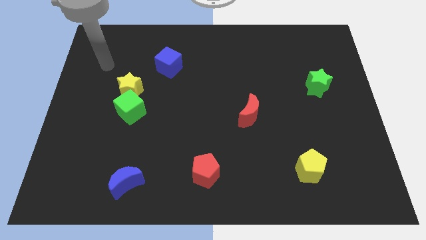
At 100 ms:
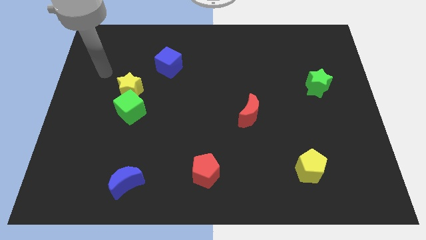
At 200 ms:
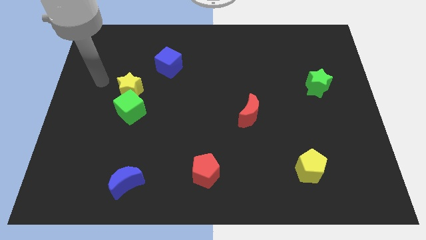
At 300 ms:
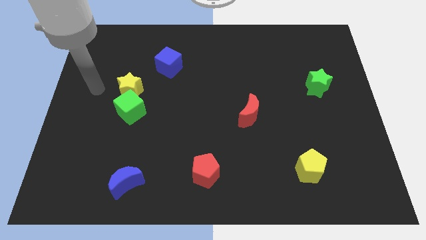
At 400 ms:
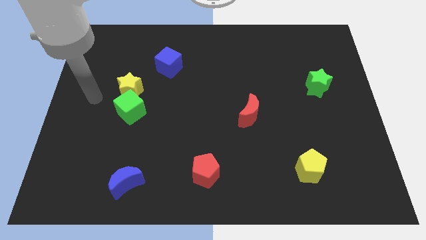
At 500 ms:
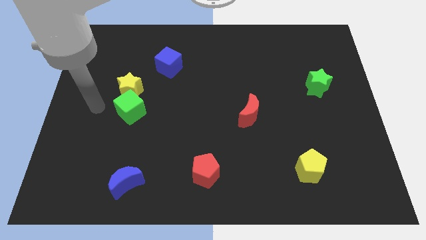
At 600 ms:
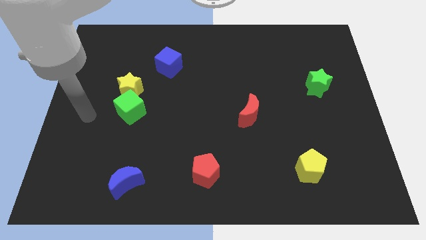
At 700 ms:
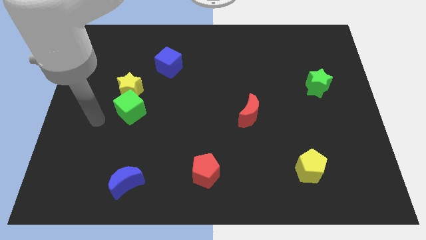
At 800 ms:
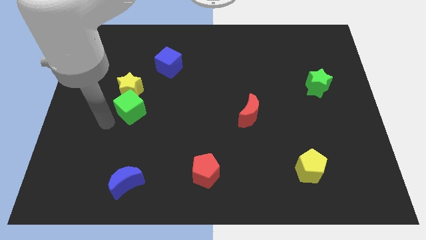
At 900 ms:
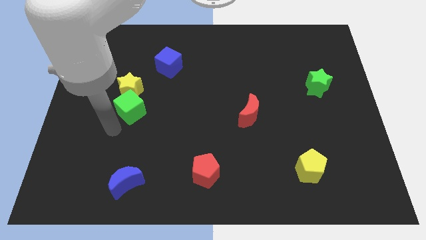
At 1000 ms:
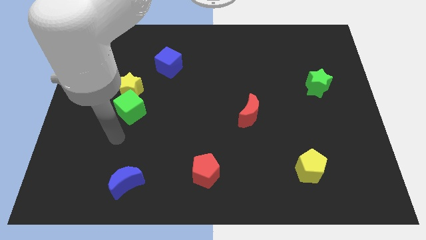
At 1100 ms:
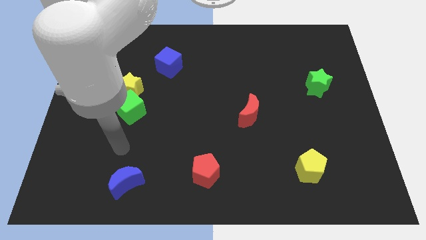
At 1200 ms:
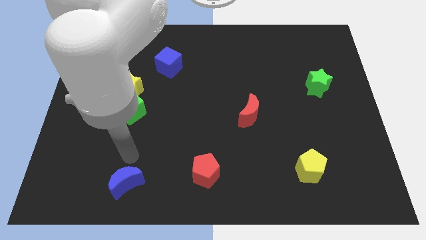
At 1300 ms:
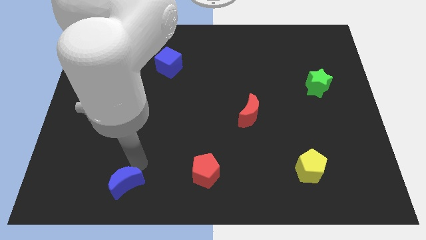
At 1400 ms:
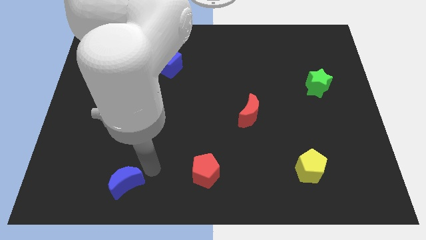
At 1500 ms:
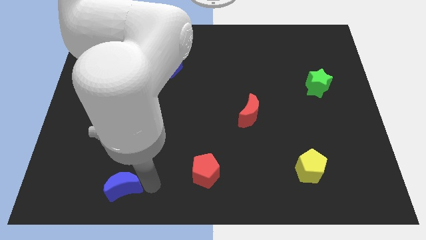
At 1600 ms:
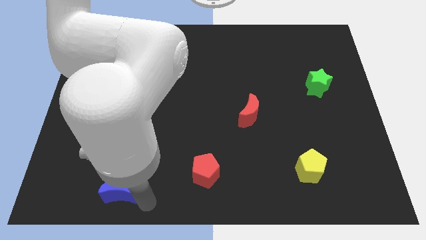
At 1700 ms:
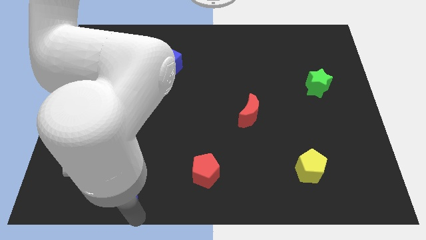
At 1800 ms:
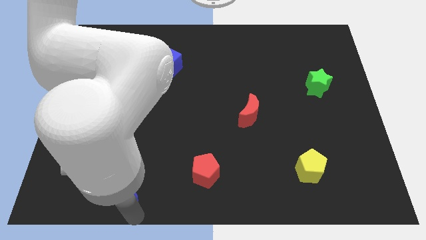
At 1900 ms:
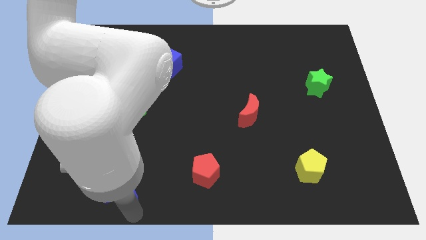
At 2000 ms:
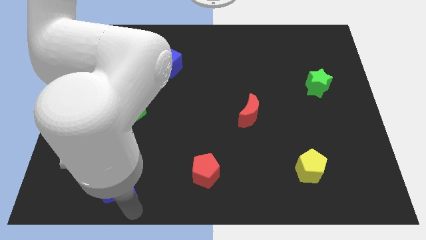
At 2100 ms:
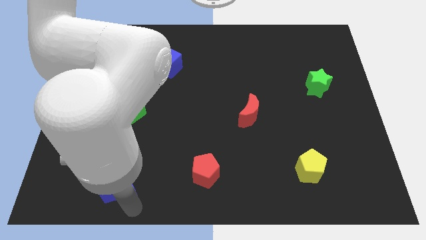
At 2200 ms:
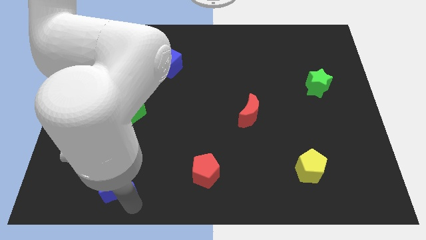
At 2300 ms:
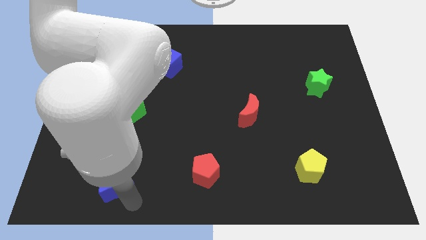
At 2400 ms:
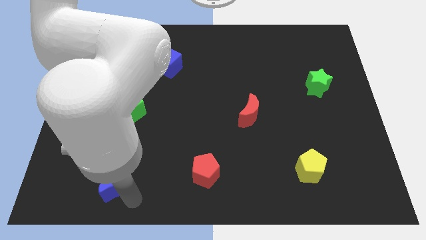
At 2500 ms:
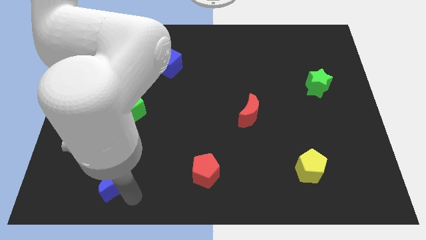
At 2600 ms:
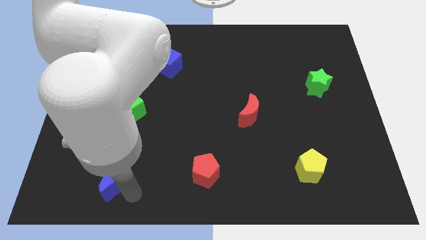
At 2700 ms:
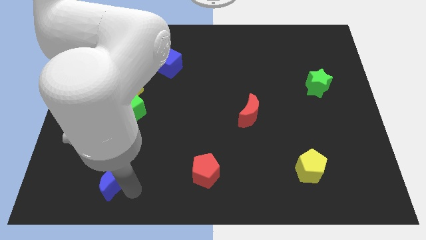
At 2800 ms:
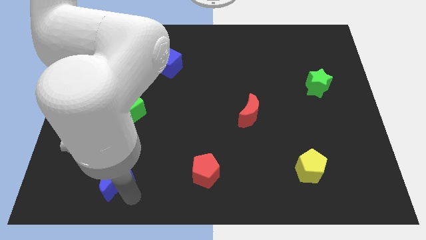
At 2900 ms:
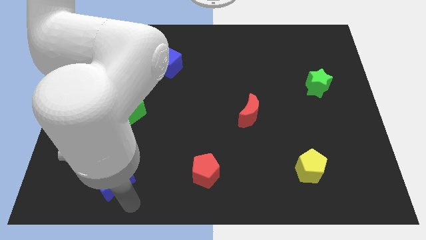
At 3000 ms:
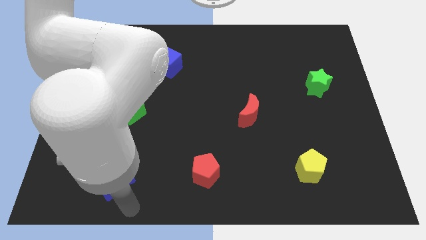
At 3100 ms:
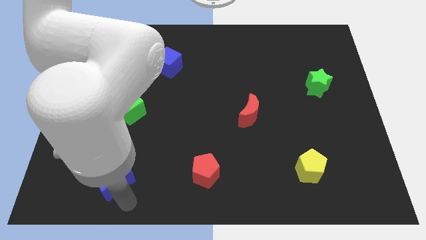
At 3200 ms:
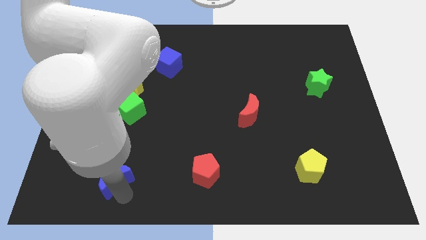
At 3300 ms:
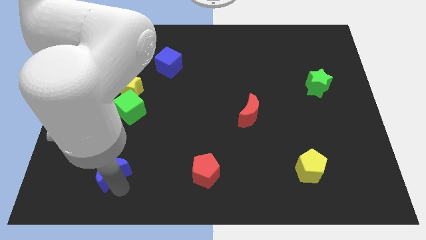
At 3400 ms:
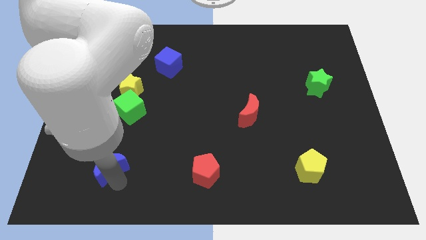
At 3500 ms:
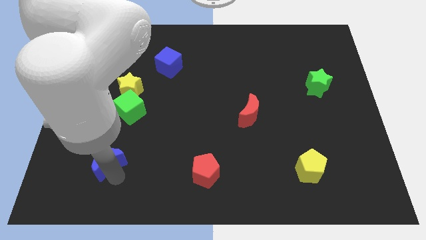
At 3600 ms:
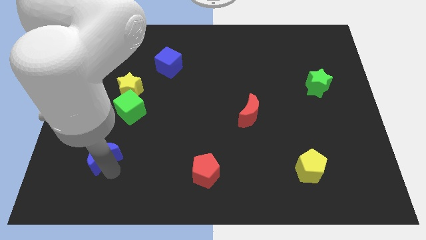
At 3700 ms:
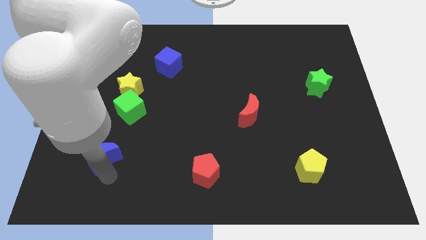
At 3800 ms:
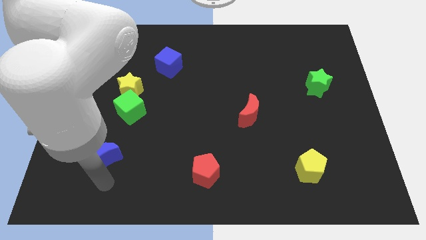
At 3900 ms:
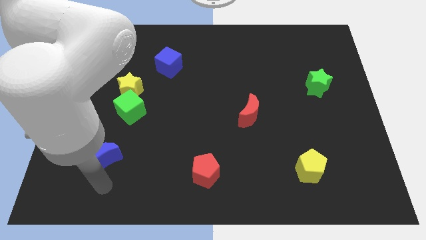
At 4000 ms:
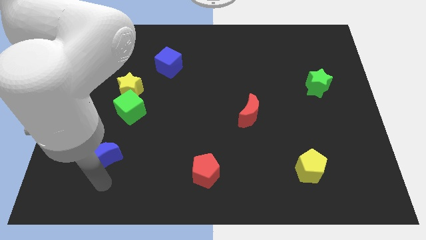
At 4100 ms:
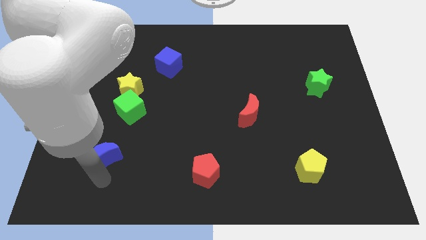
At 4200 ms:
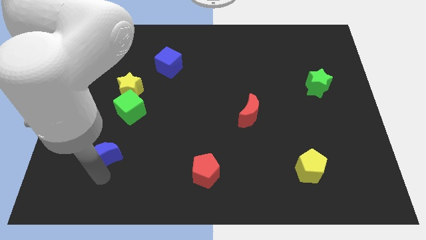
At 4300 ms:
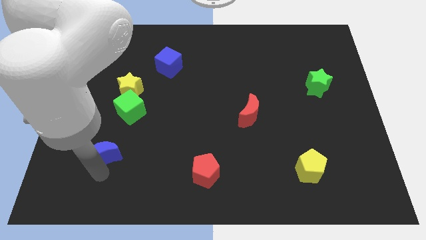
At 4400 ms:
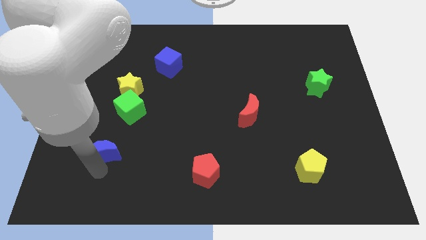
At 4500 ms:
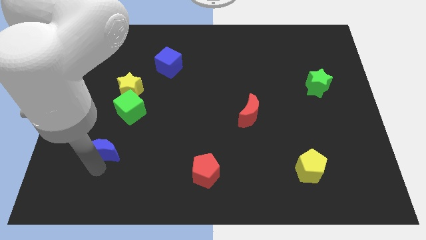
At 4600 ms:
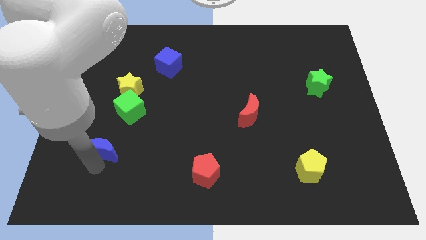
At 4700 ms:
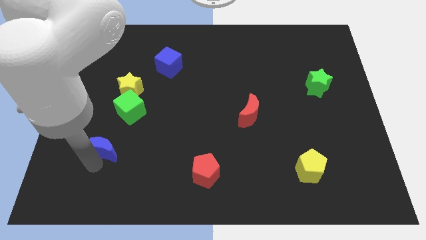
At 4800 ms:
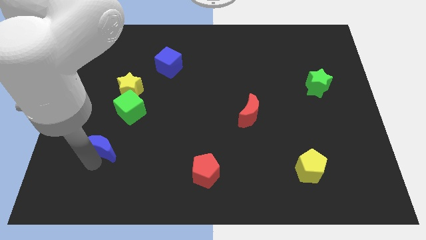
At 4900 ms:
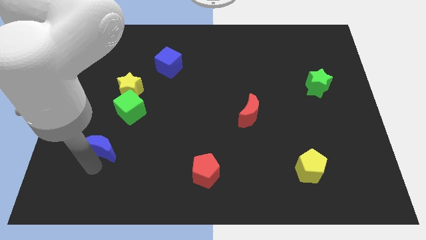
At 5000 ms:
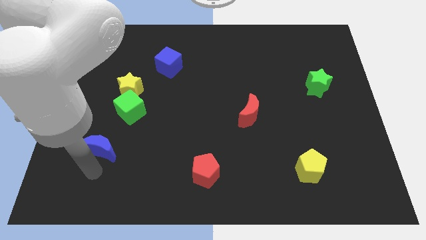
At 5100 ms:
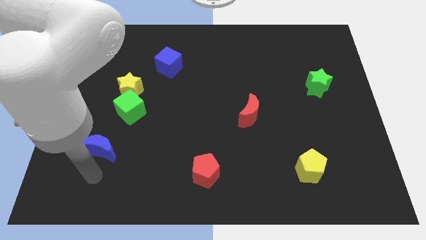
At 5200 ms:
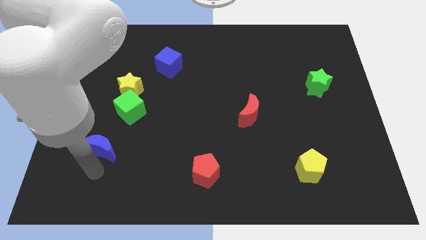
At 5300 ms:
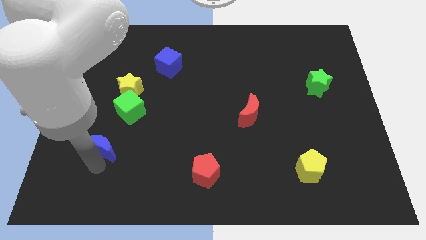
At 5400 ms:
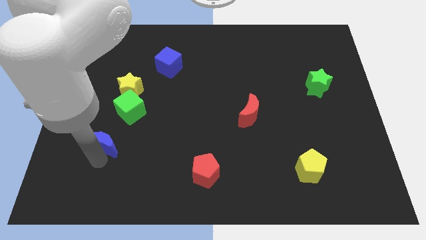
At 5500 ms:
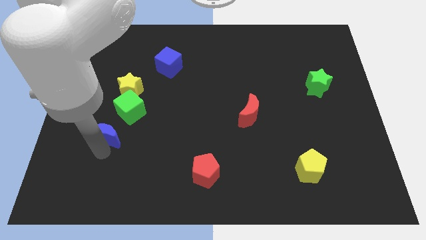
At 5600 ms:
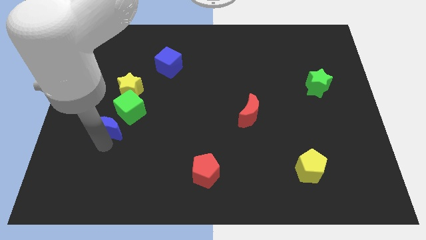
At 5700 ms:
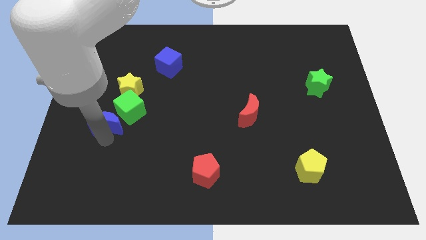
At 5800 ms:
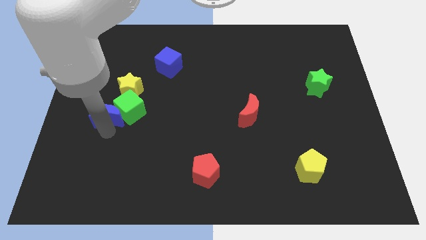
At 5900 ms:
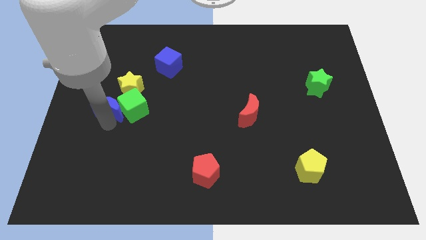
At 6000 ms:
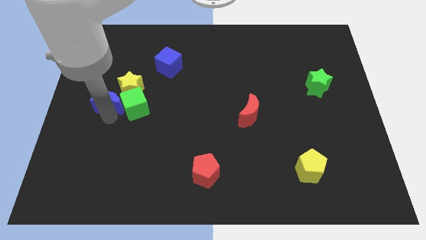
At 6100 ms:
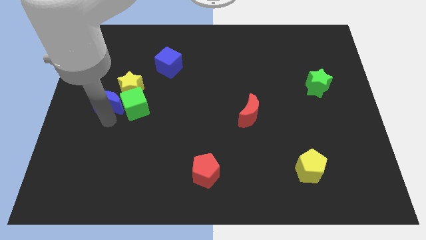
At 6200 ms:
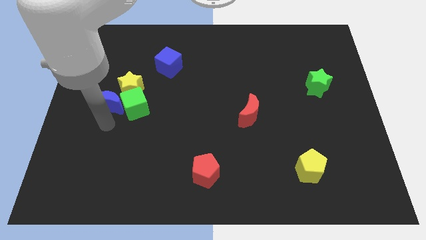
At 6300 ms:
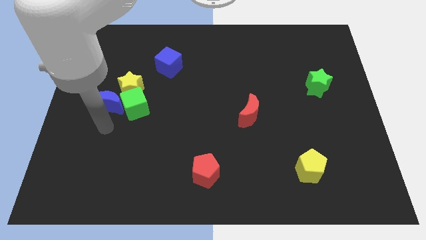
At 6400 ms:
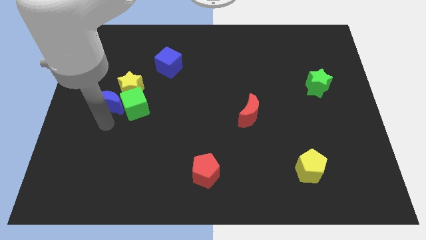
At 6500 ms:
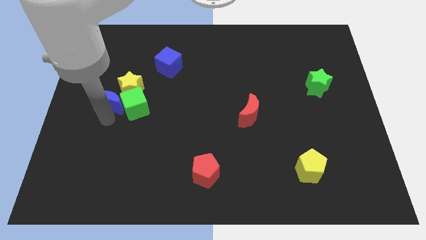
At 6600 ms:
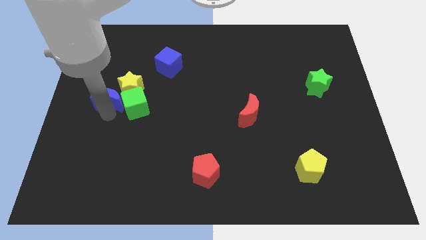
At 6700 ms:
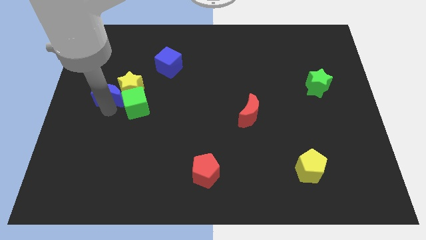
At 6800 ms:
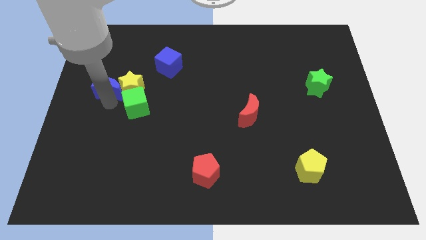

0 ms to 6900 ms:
put the blue moon to the top left side of the yellow star
